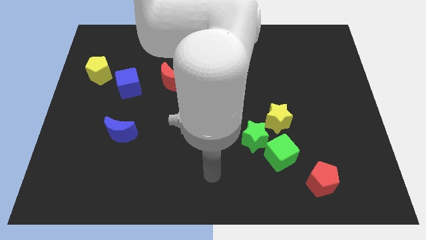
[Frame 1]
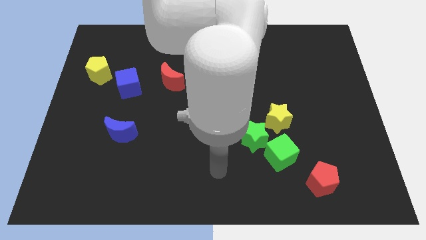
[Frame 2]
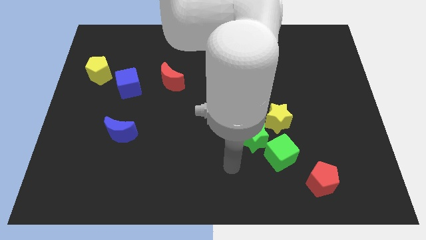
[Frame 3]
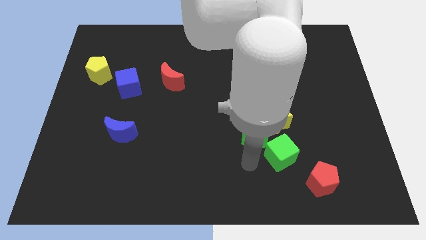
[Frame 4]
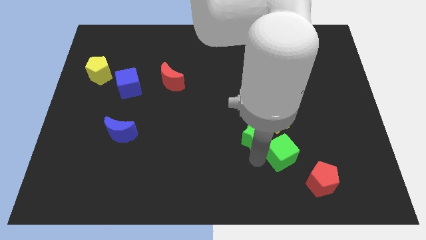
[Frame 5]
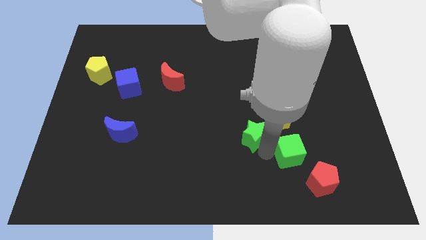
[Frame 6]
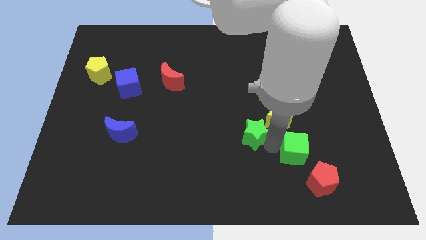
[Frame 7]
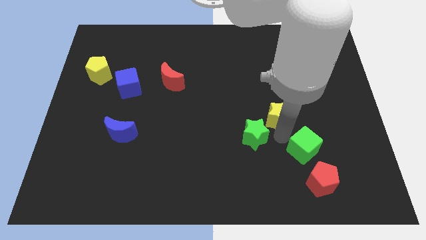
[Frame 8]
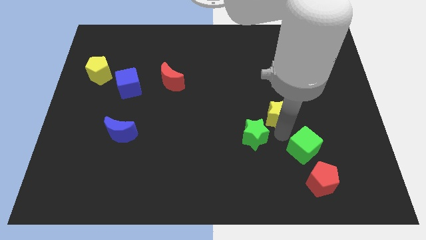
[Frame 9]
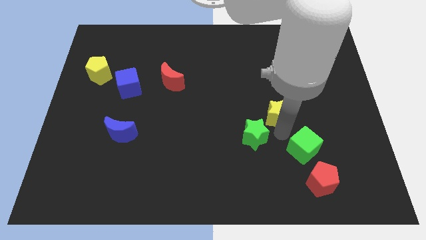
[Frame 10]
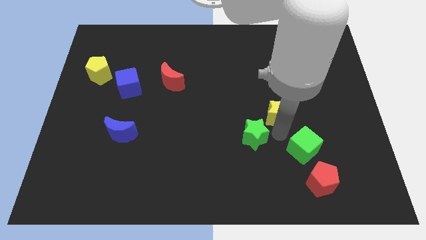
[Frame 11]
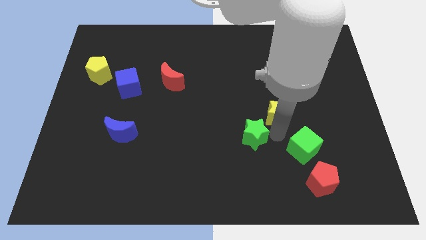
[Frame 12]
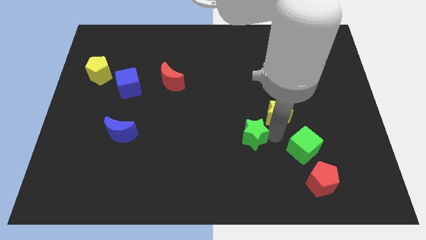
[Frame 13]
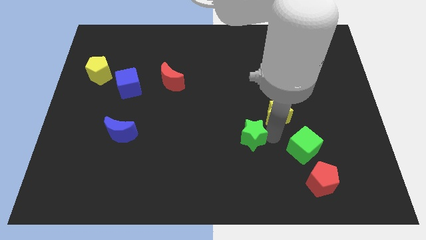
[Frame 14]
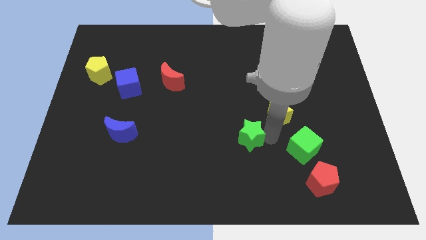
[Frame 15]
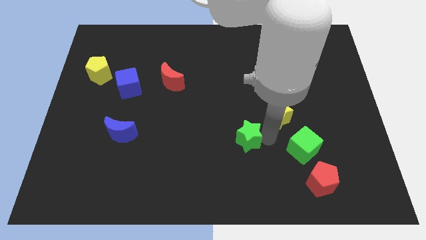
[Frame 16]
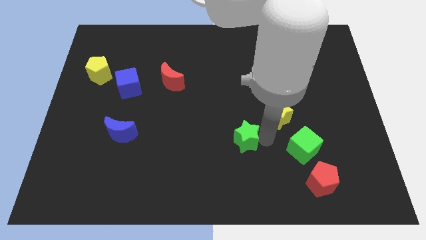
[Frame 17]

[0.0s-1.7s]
pull the green star apart from the green cube and yellow star

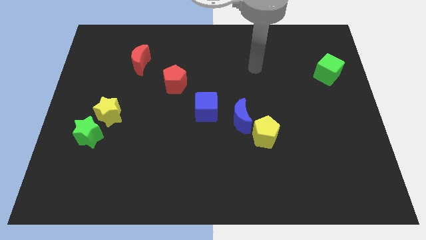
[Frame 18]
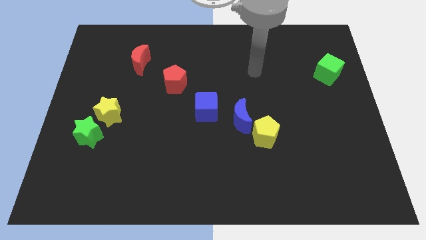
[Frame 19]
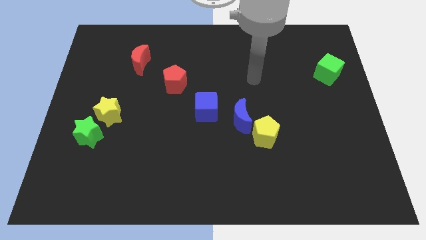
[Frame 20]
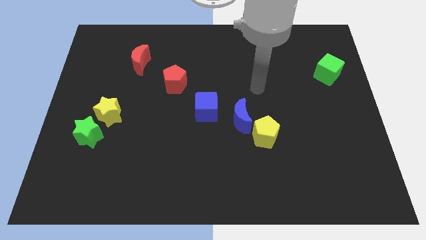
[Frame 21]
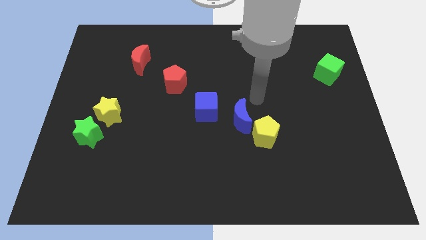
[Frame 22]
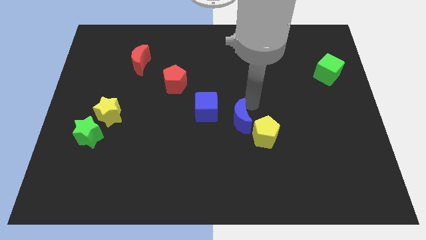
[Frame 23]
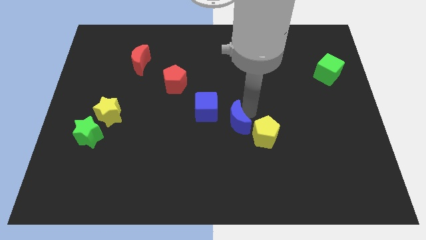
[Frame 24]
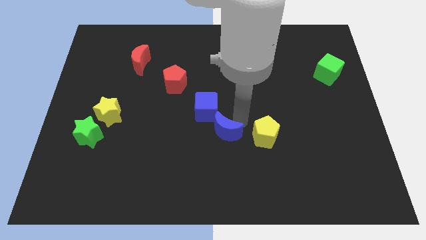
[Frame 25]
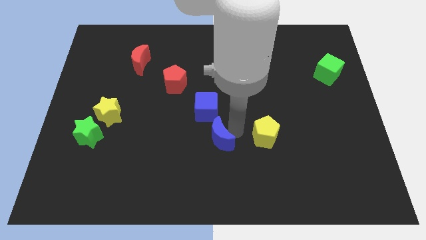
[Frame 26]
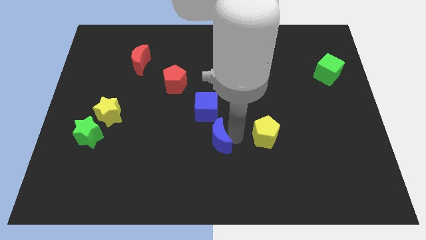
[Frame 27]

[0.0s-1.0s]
move the yellow pentagon away from the blue moon

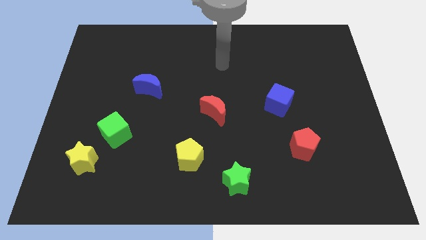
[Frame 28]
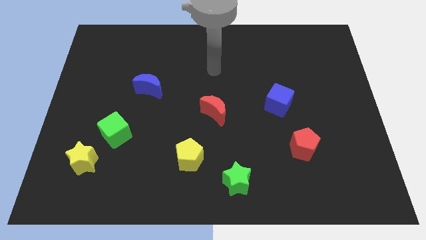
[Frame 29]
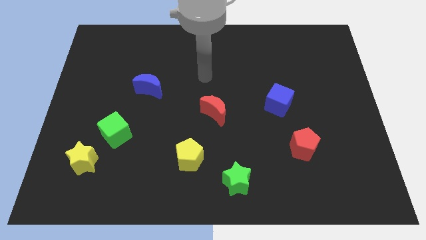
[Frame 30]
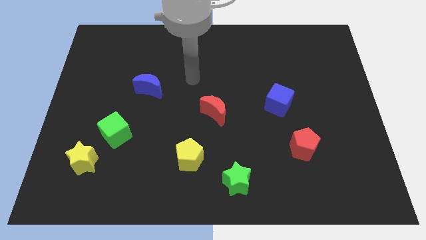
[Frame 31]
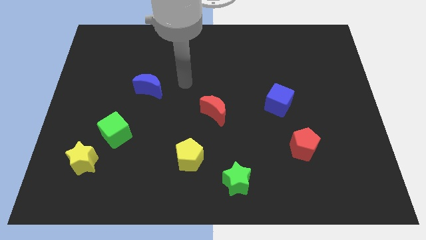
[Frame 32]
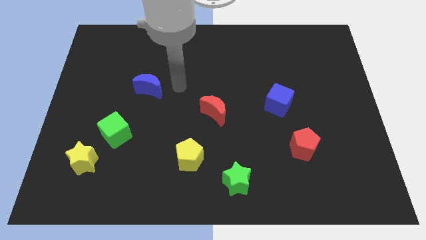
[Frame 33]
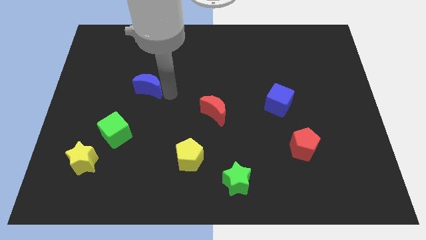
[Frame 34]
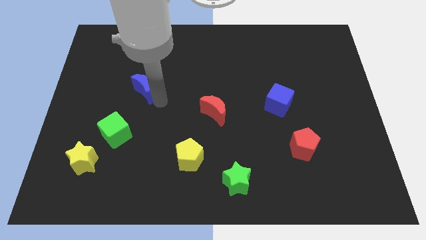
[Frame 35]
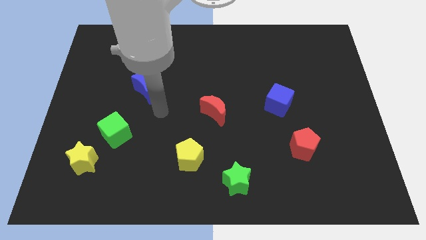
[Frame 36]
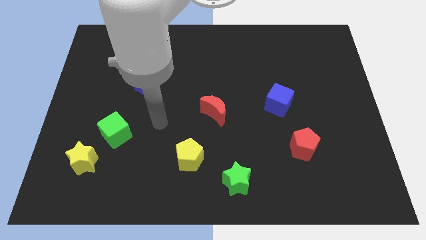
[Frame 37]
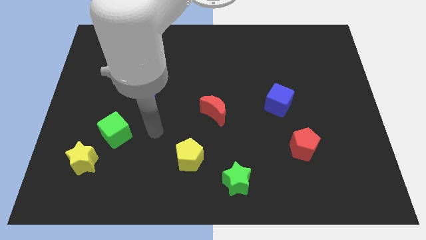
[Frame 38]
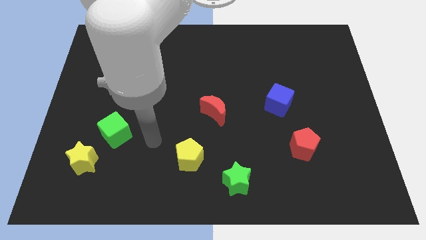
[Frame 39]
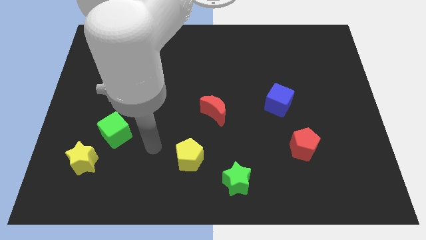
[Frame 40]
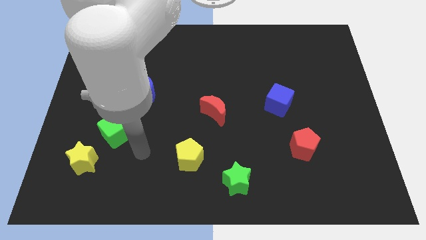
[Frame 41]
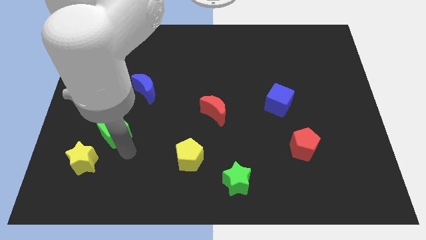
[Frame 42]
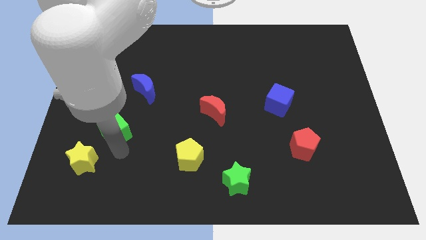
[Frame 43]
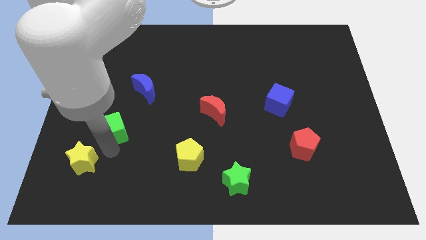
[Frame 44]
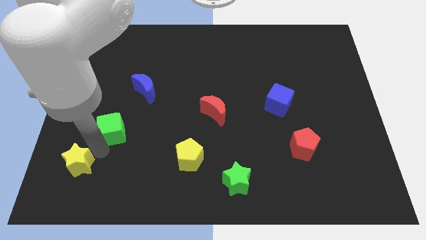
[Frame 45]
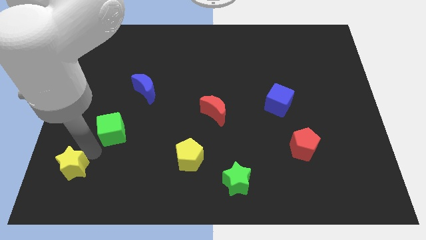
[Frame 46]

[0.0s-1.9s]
separate the green cube from the yellow star

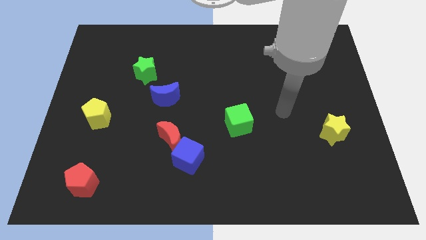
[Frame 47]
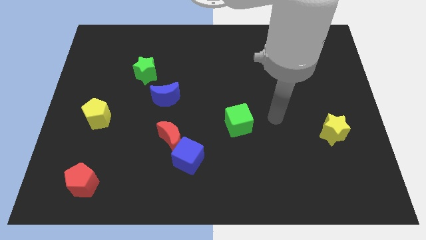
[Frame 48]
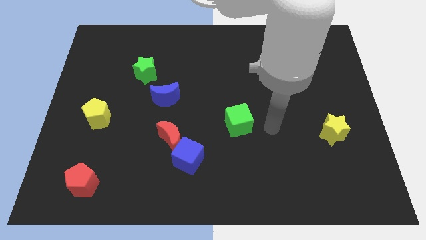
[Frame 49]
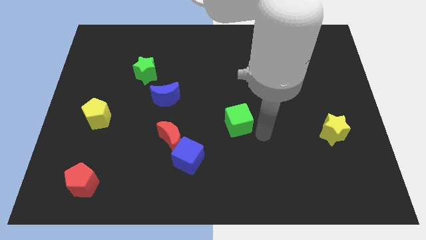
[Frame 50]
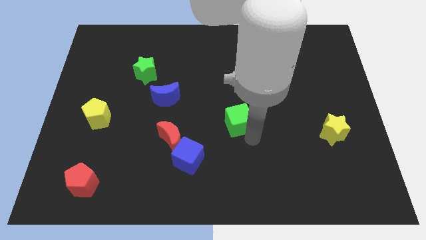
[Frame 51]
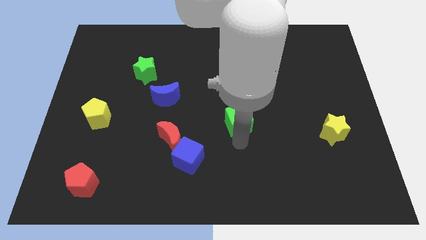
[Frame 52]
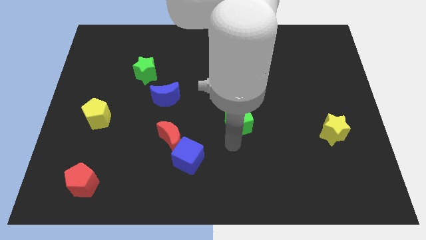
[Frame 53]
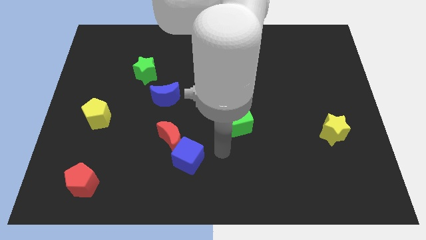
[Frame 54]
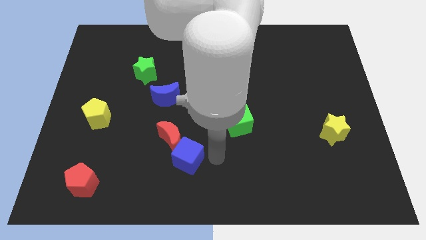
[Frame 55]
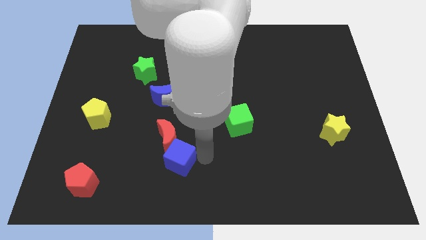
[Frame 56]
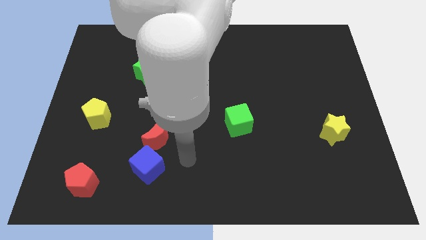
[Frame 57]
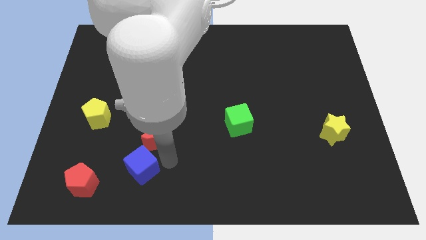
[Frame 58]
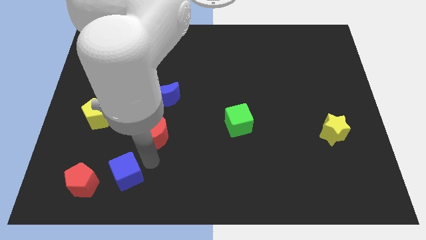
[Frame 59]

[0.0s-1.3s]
separate the red moon from the blue cube

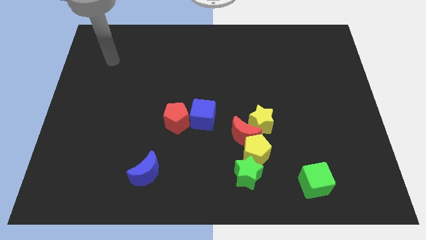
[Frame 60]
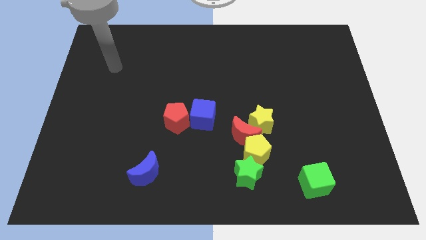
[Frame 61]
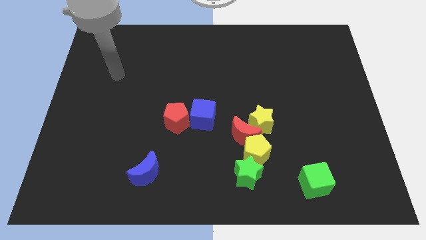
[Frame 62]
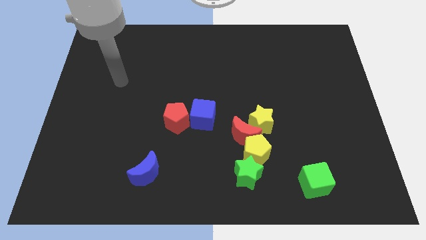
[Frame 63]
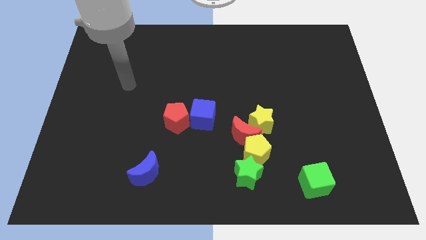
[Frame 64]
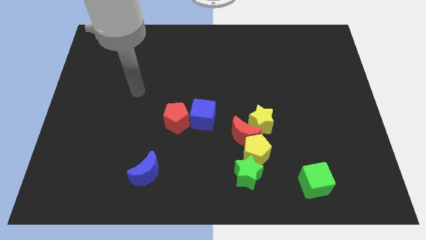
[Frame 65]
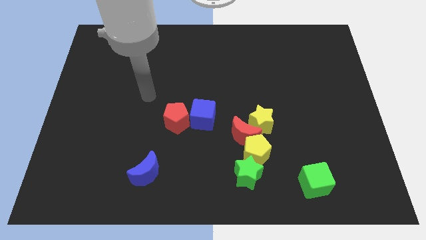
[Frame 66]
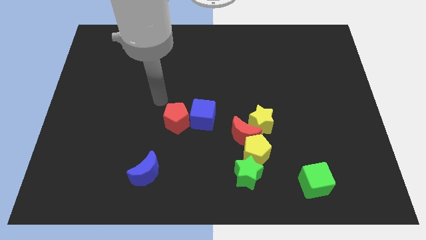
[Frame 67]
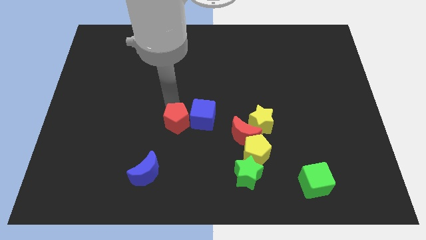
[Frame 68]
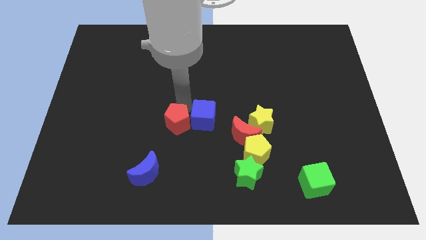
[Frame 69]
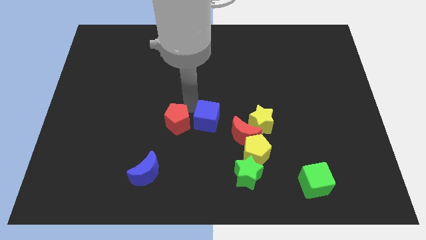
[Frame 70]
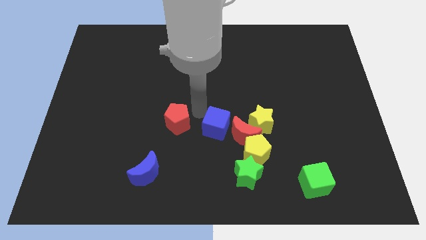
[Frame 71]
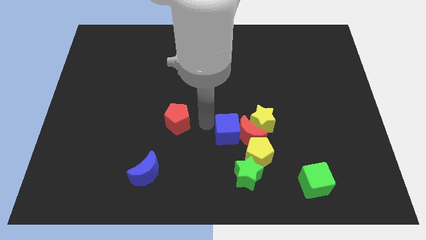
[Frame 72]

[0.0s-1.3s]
move the red pentagon away from the blue cube

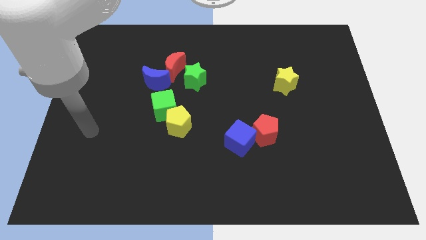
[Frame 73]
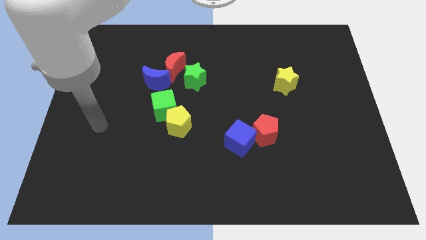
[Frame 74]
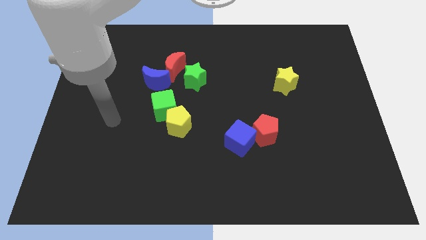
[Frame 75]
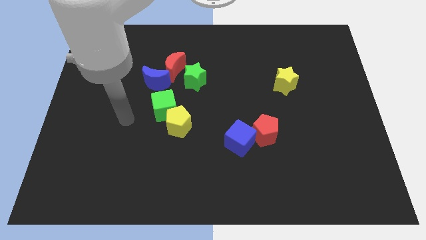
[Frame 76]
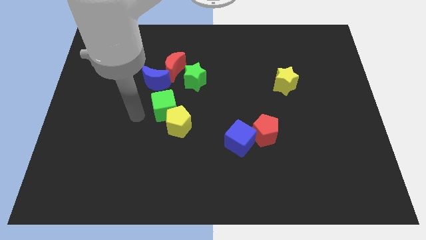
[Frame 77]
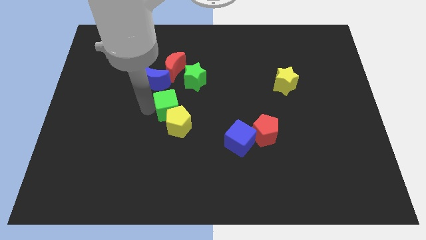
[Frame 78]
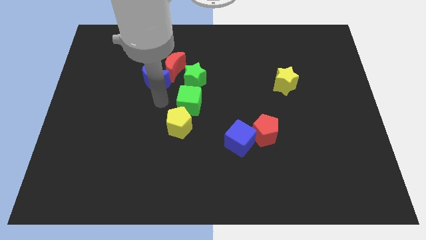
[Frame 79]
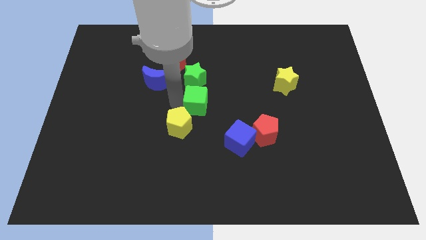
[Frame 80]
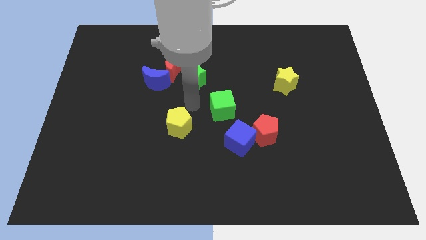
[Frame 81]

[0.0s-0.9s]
move the yellow pentagon away from the green cube

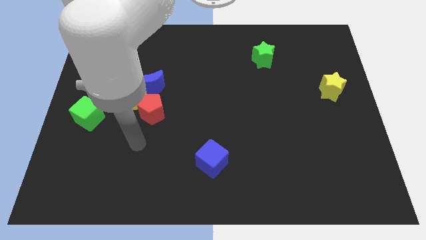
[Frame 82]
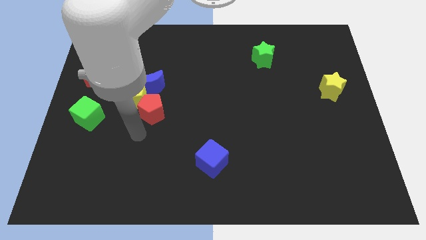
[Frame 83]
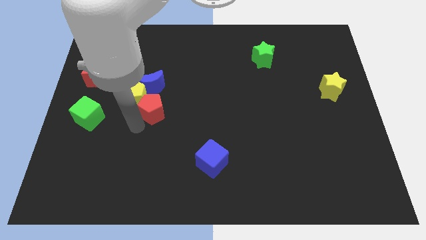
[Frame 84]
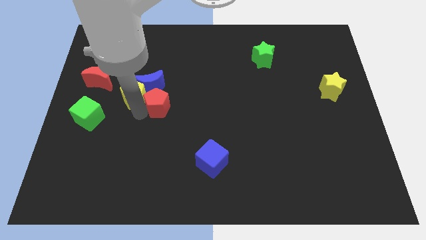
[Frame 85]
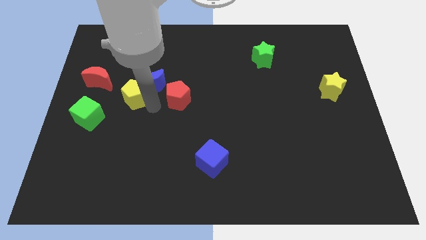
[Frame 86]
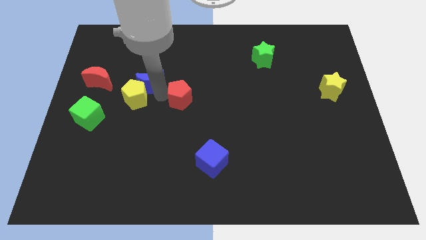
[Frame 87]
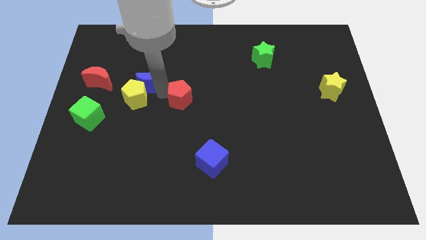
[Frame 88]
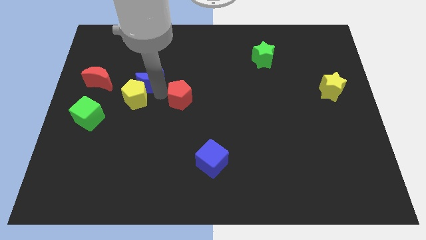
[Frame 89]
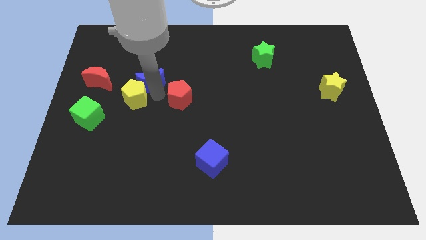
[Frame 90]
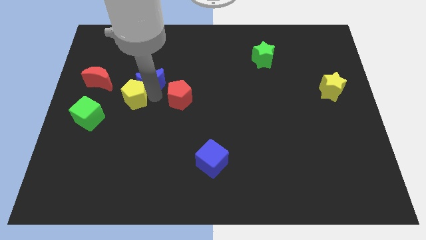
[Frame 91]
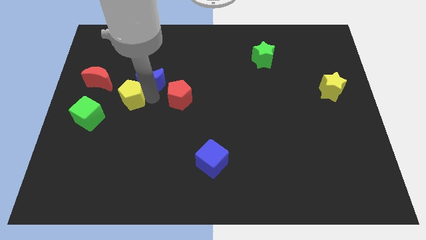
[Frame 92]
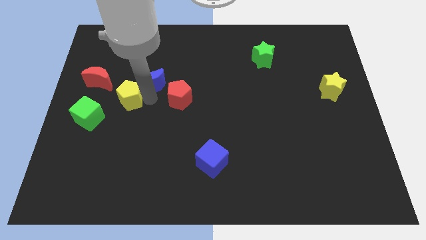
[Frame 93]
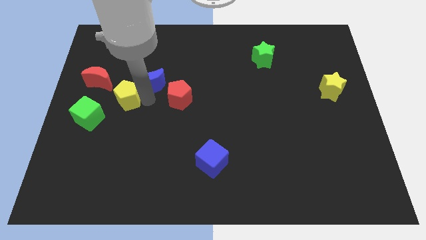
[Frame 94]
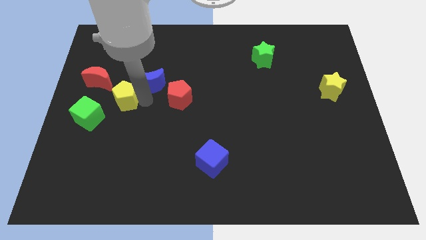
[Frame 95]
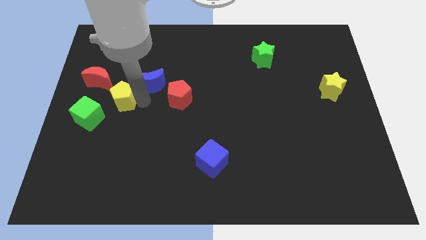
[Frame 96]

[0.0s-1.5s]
separate the yellow pentagon from the blue moon and red pentagon
